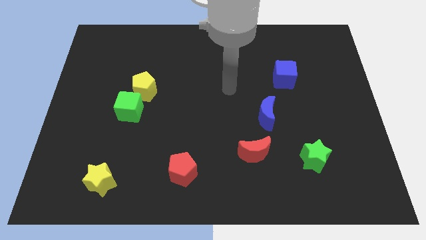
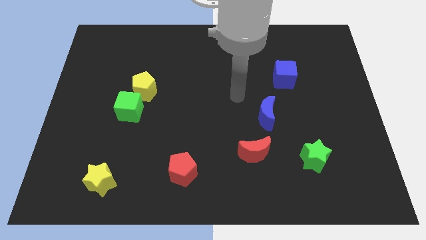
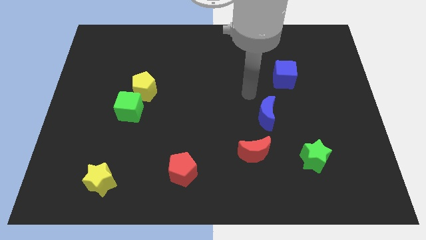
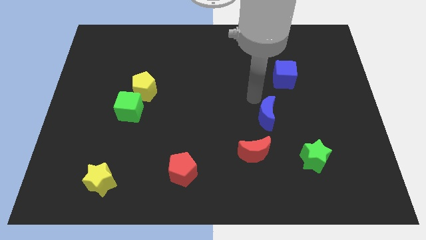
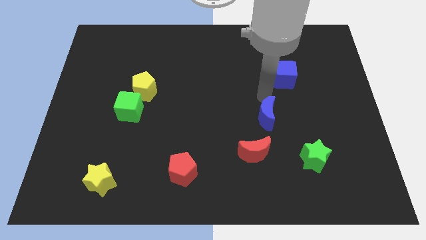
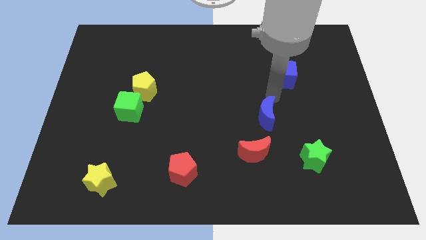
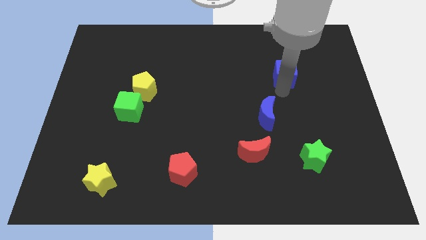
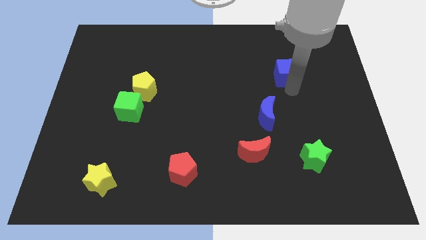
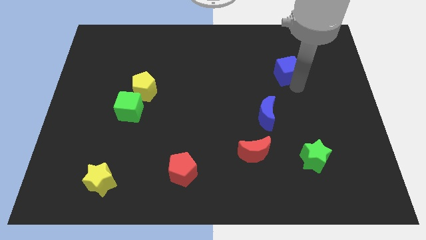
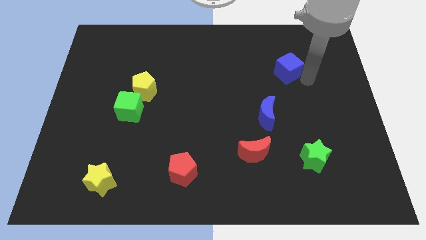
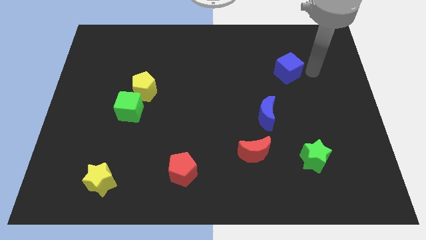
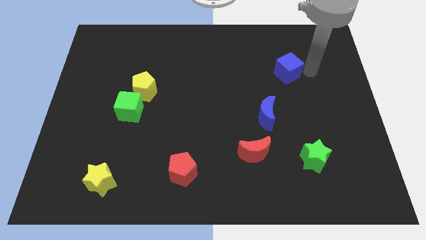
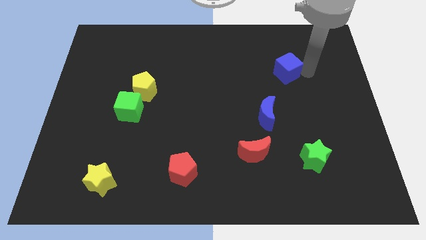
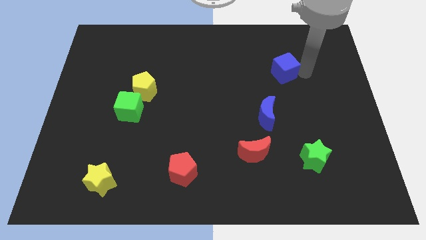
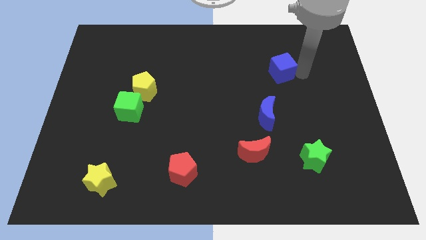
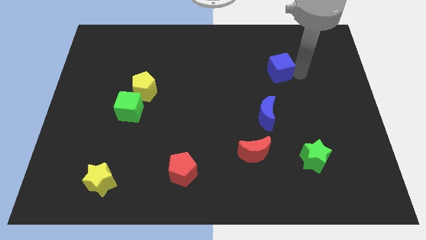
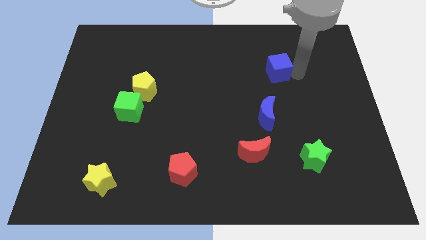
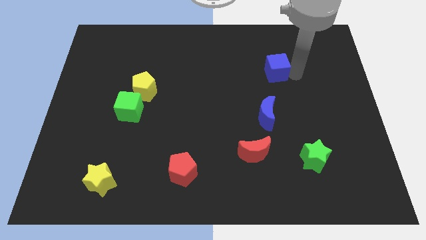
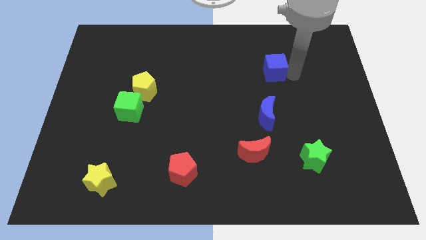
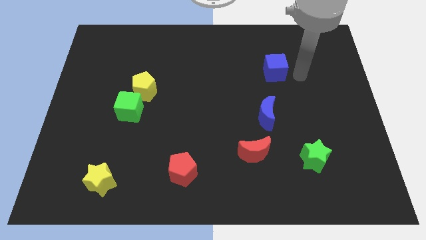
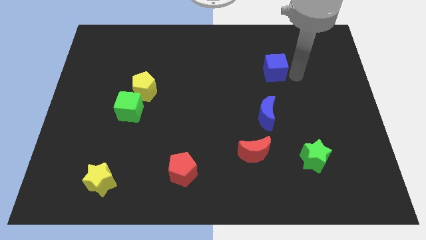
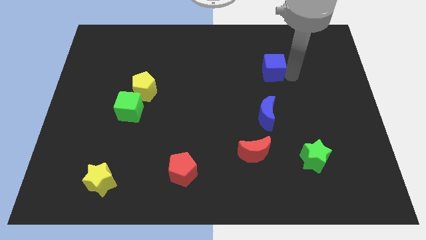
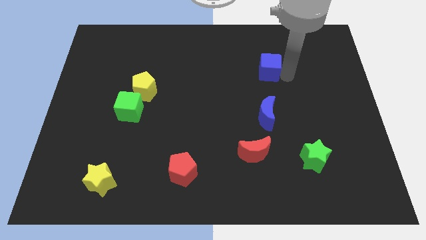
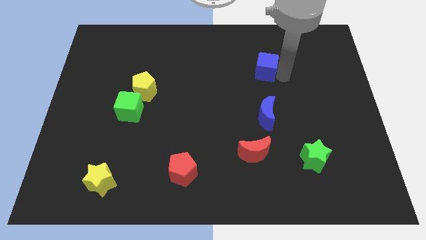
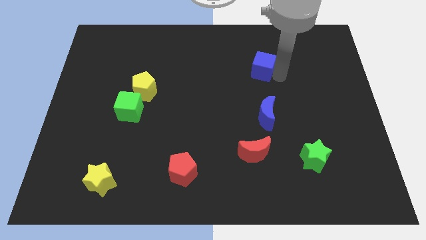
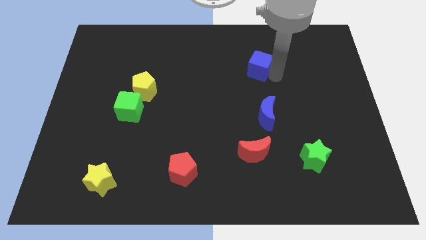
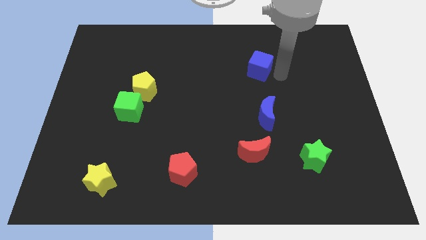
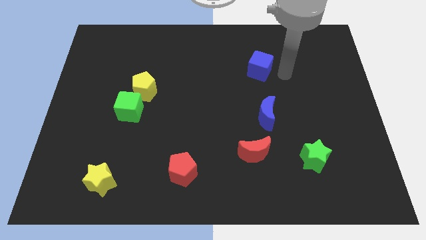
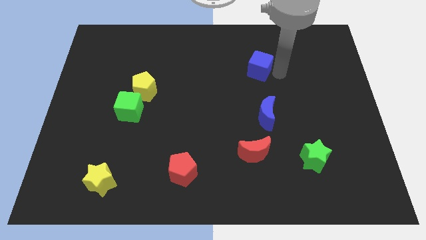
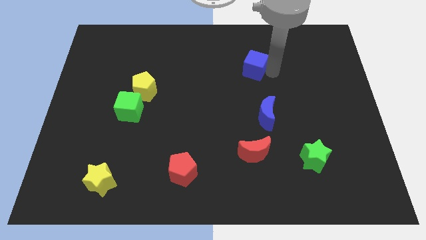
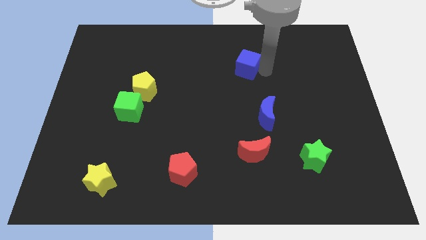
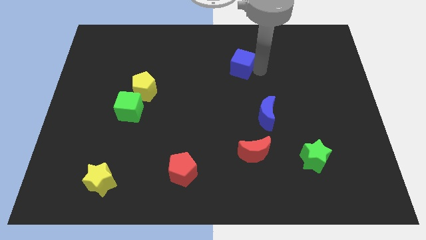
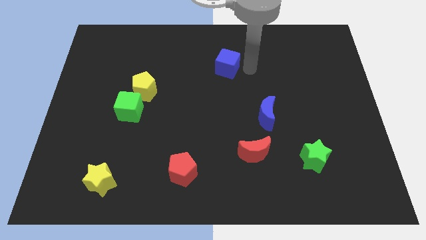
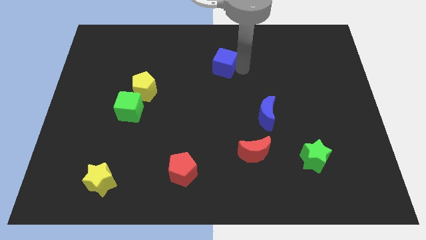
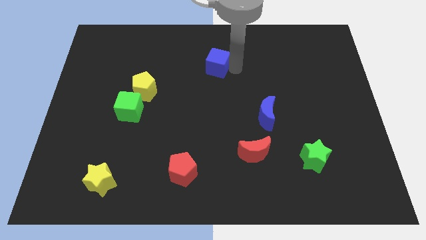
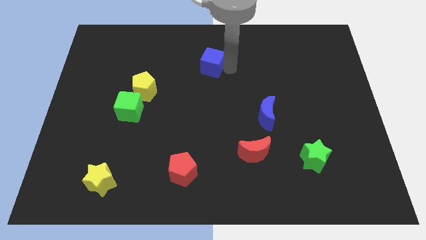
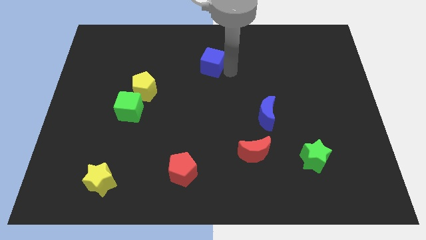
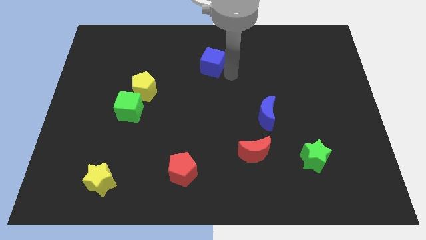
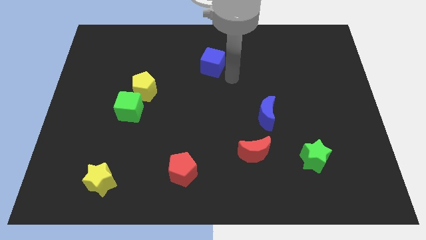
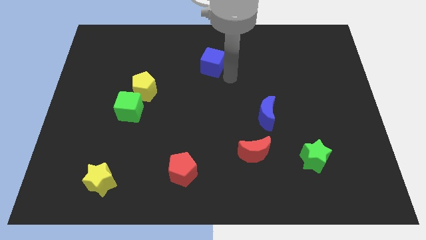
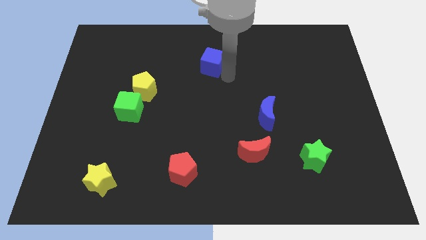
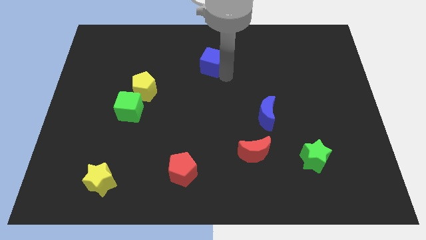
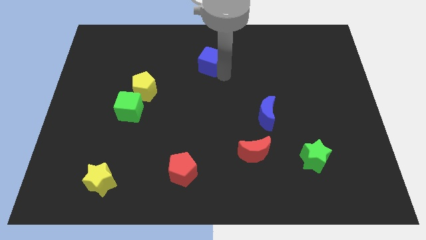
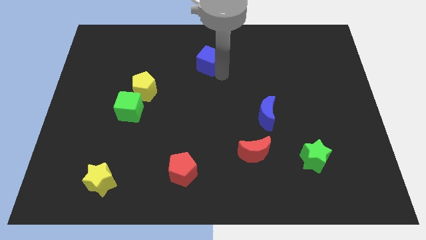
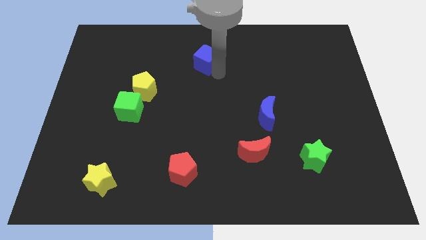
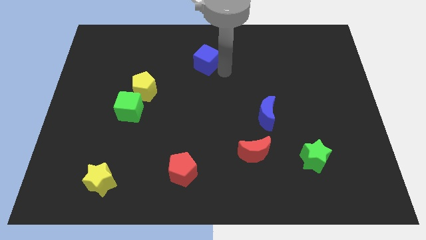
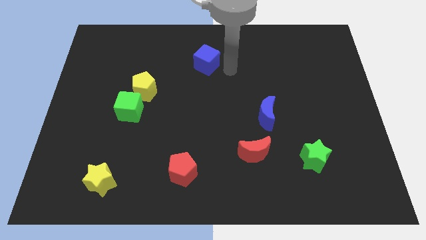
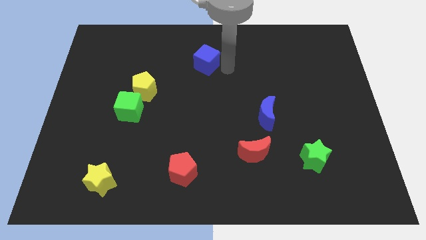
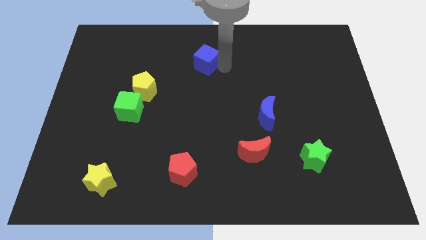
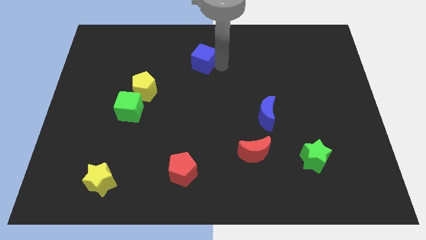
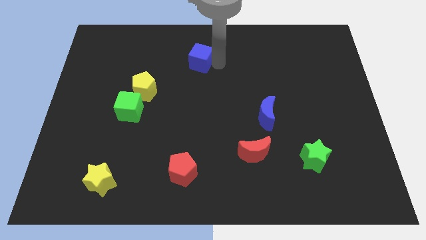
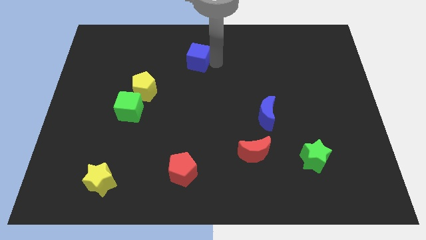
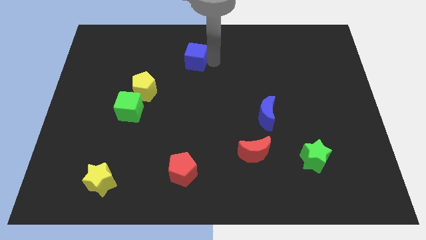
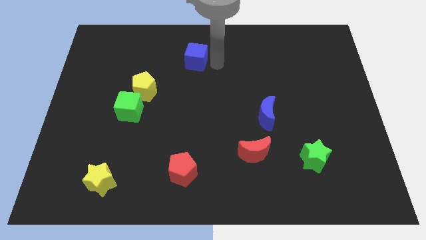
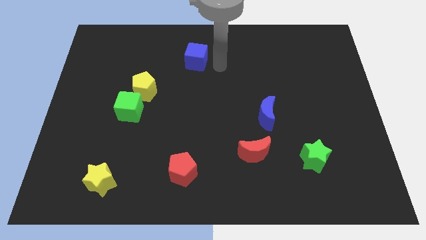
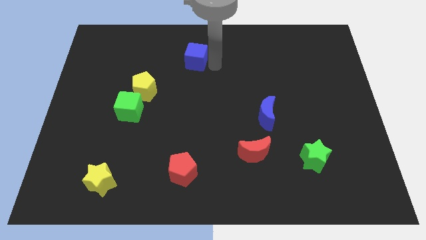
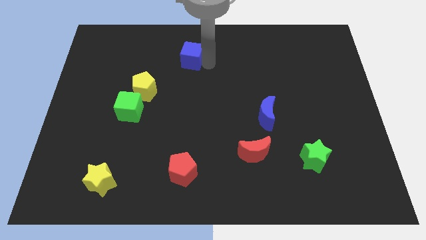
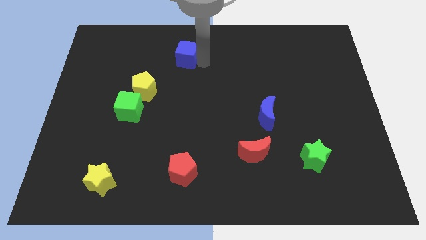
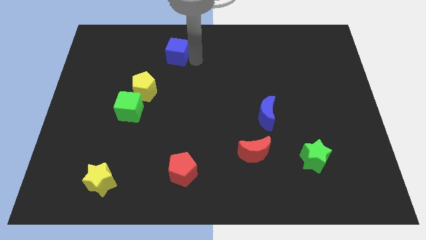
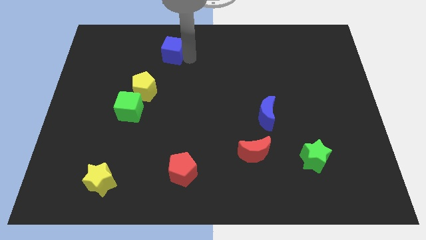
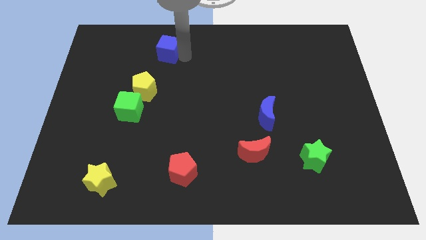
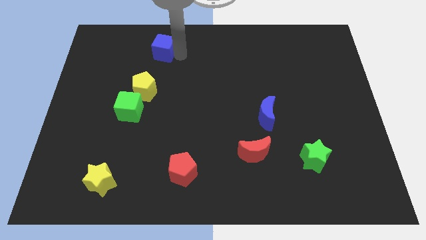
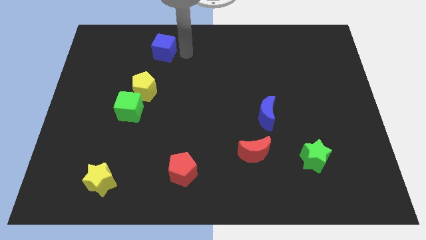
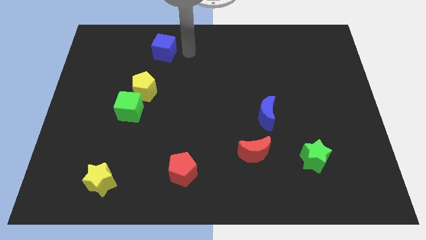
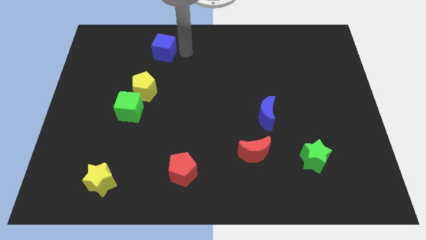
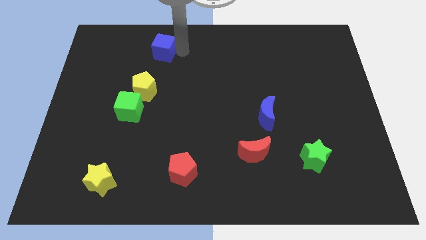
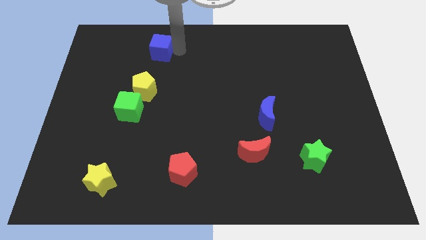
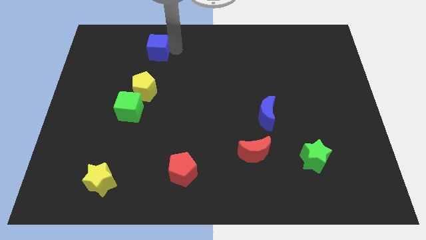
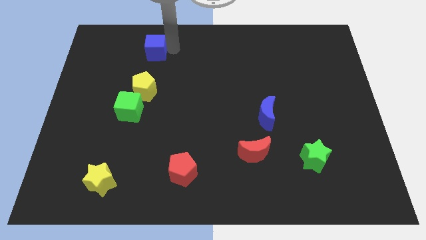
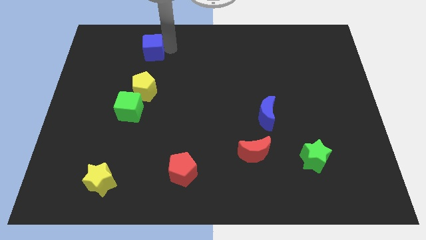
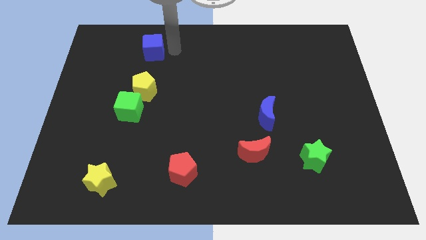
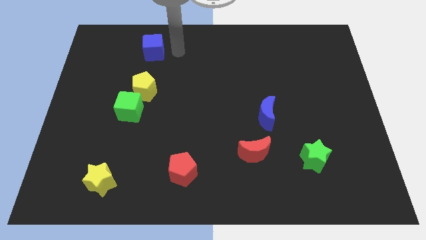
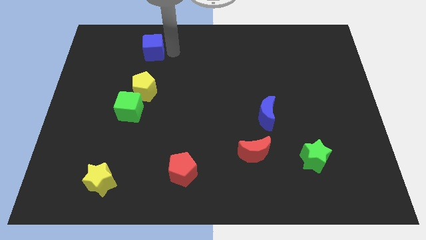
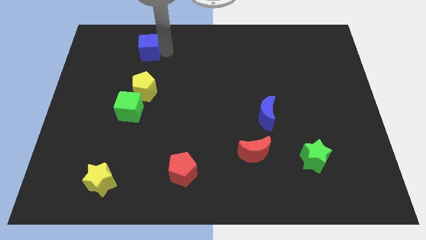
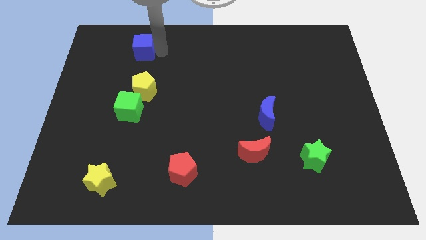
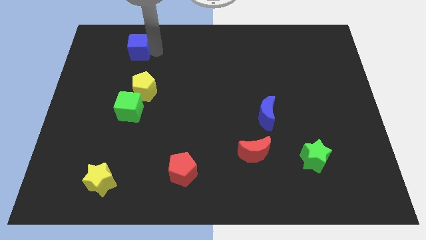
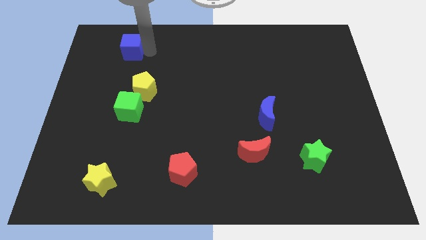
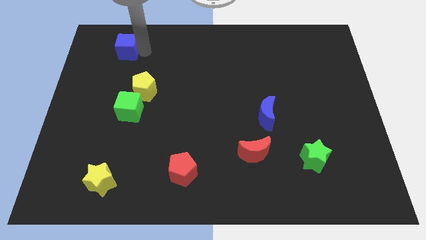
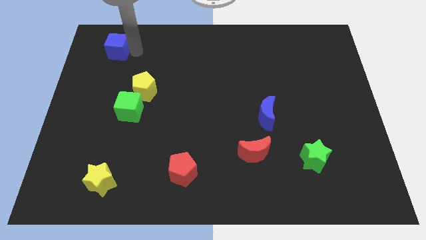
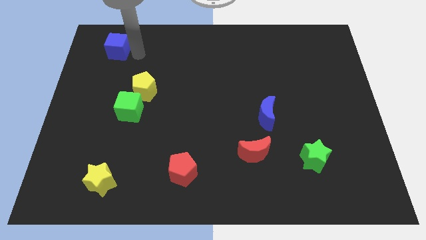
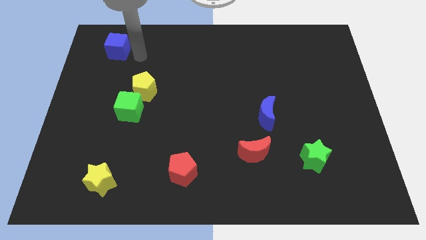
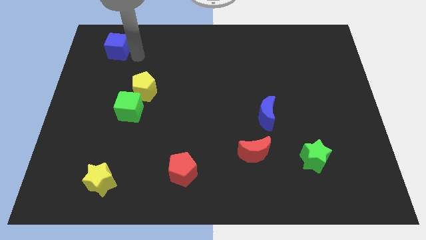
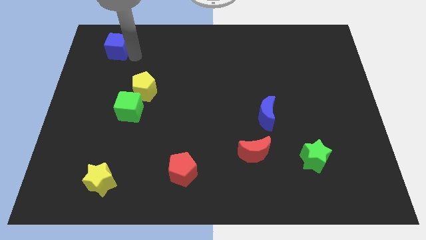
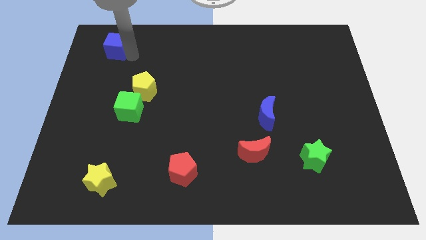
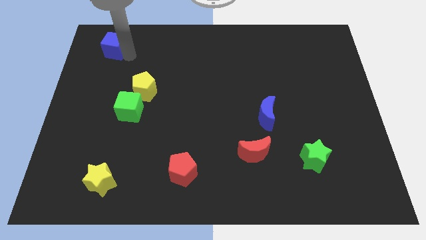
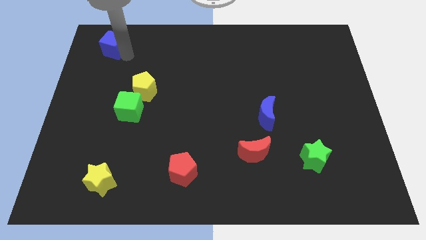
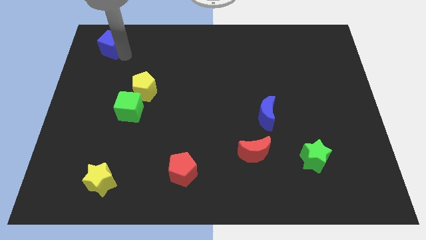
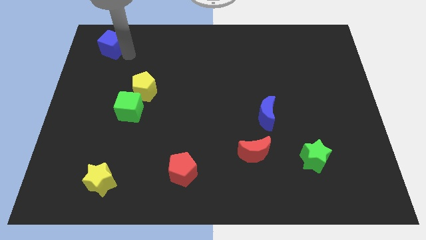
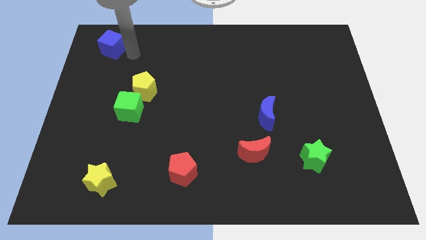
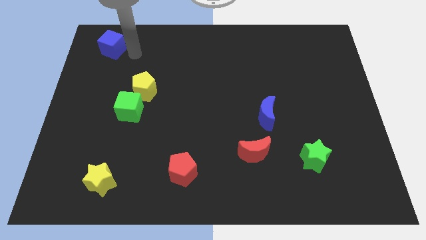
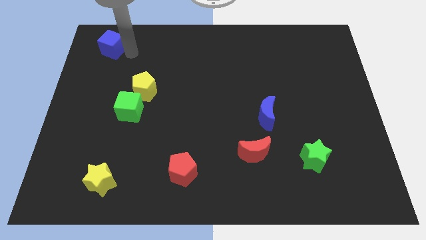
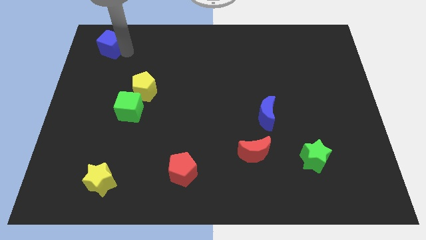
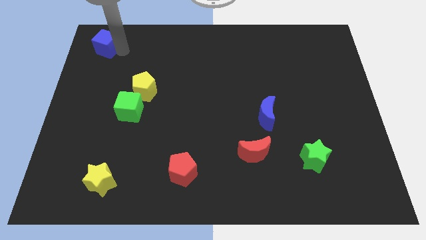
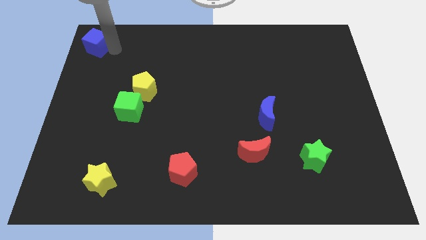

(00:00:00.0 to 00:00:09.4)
put the blue cube to the top left of the board
